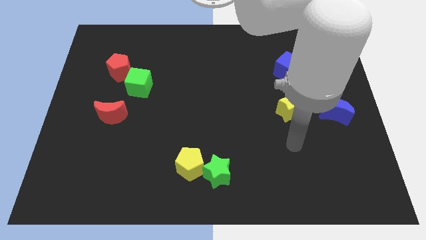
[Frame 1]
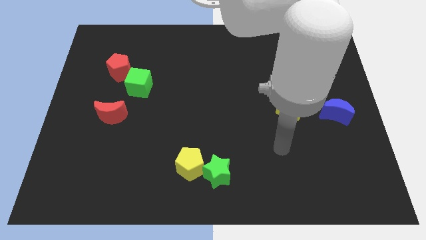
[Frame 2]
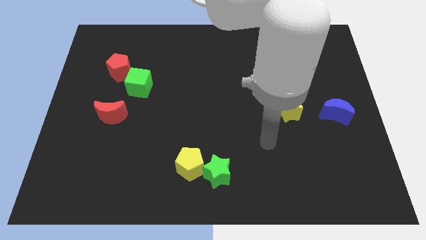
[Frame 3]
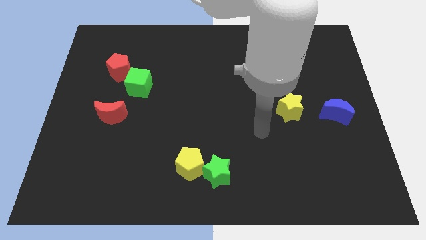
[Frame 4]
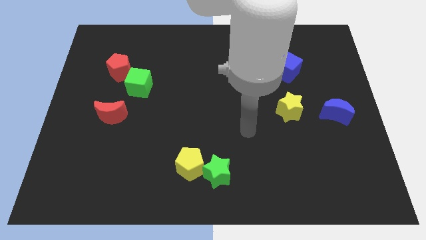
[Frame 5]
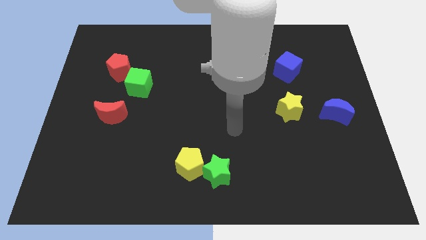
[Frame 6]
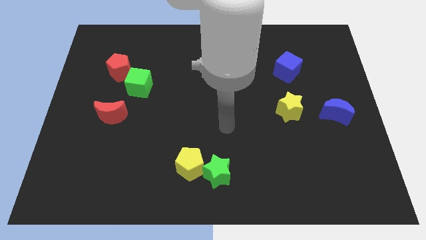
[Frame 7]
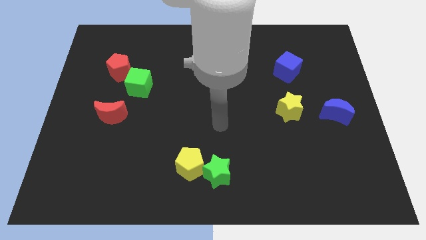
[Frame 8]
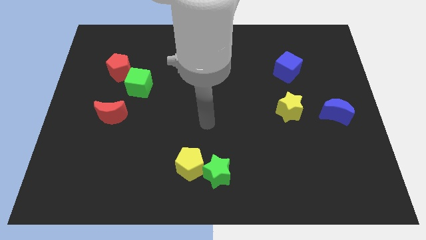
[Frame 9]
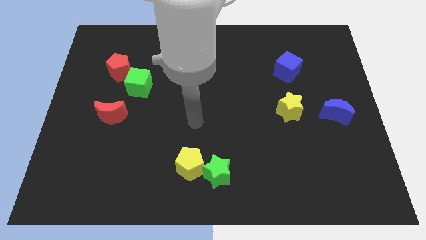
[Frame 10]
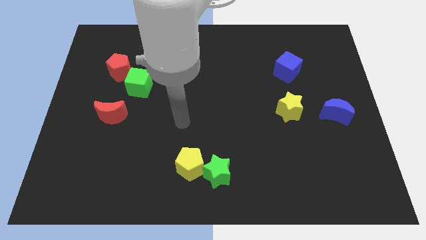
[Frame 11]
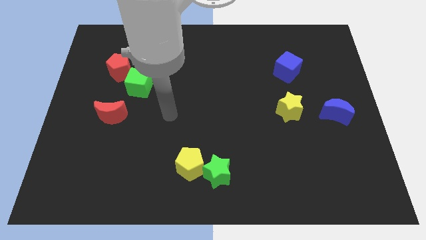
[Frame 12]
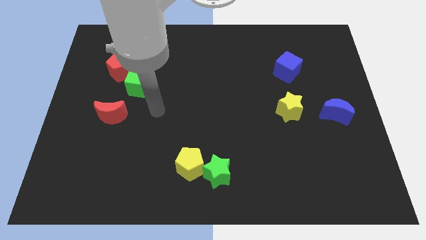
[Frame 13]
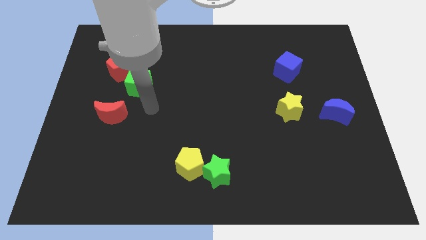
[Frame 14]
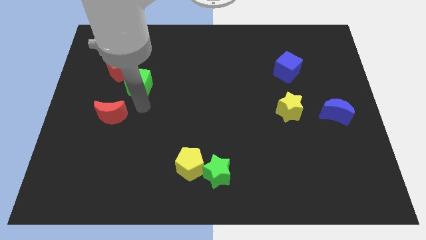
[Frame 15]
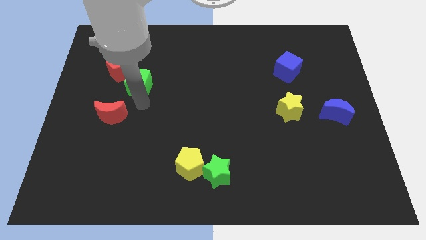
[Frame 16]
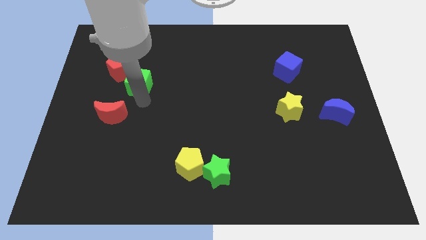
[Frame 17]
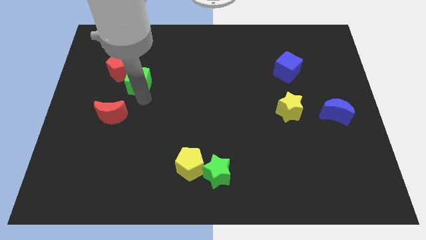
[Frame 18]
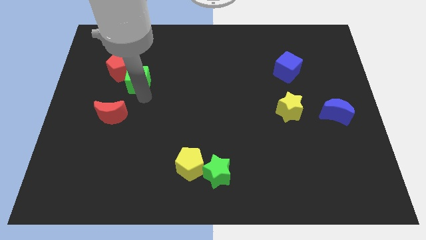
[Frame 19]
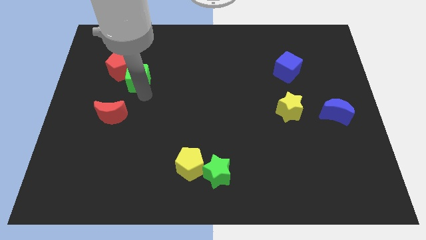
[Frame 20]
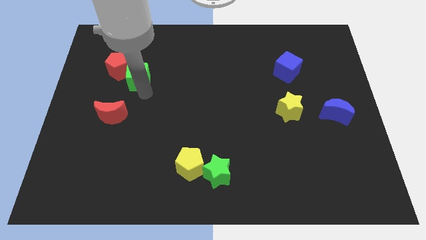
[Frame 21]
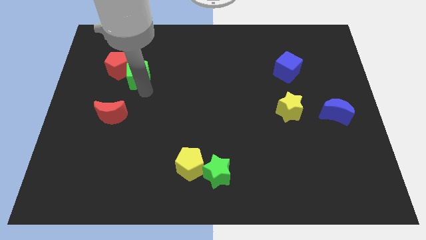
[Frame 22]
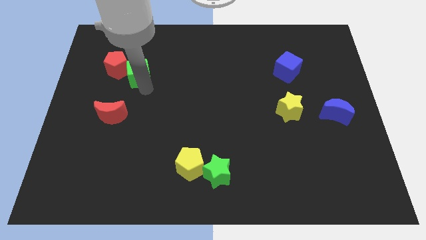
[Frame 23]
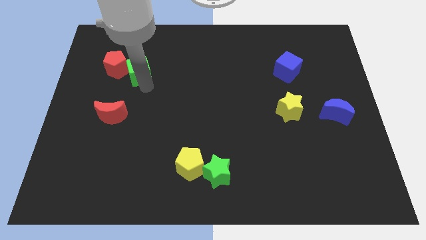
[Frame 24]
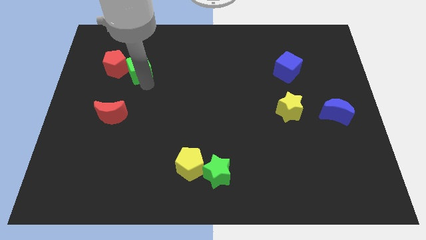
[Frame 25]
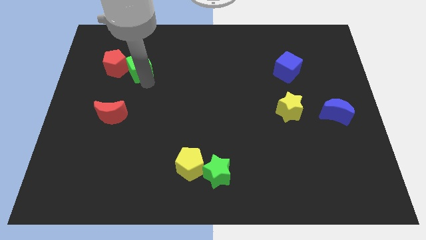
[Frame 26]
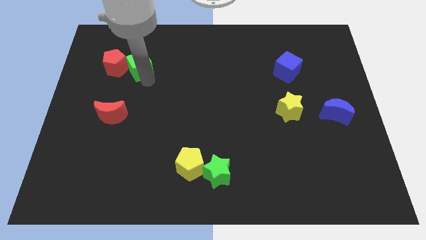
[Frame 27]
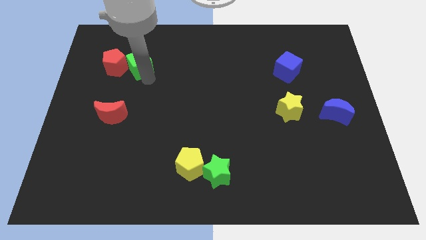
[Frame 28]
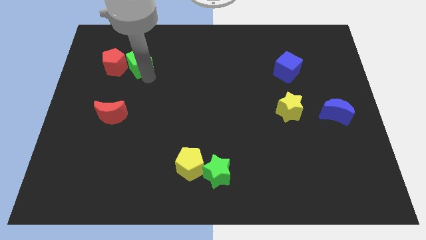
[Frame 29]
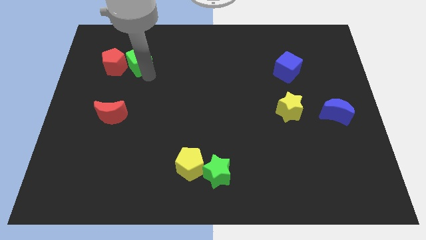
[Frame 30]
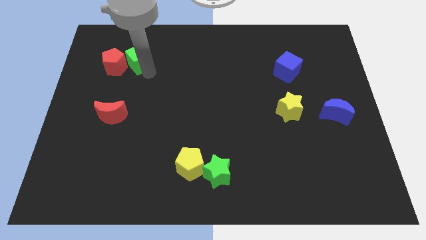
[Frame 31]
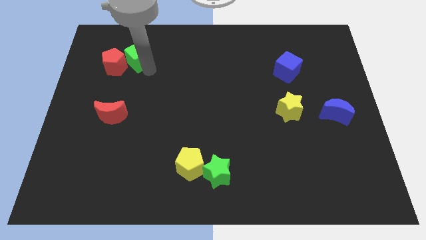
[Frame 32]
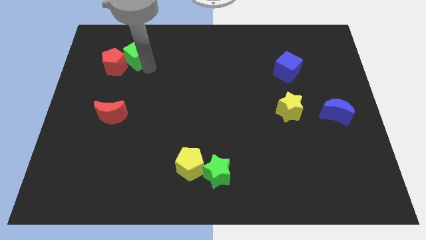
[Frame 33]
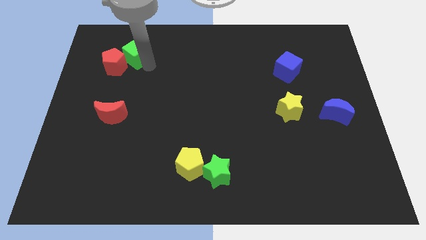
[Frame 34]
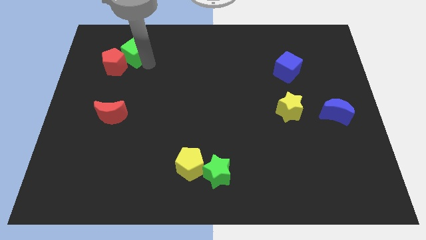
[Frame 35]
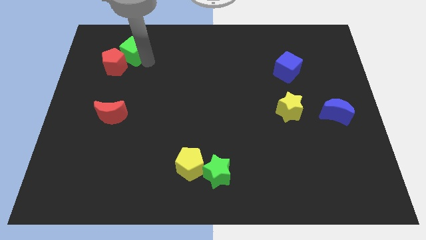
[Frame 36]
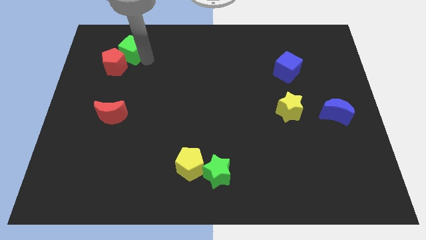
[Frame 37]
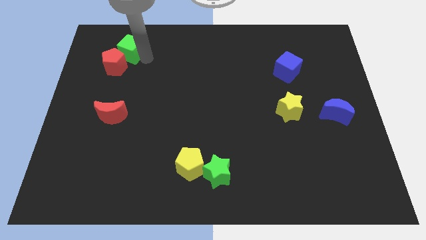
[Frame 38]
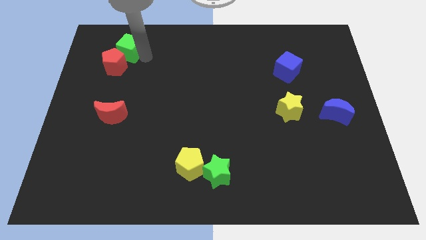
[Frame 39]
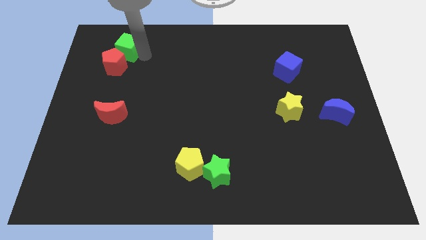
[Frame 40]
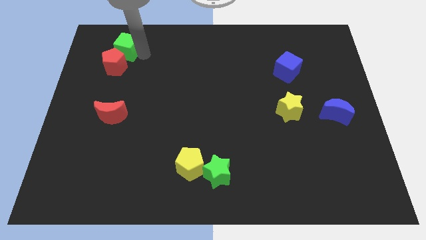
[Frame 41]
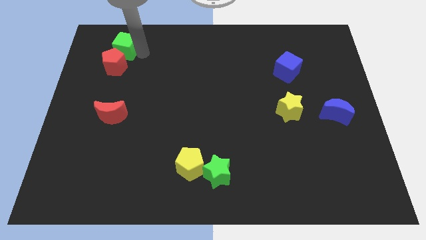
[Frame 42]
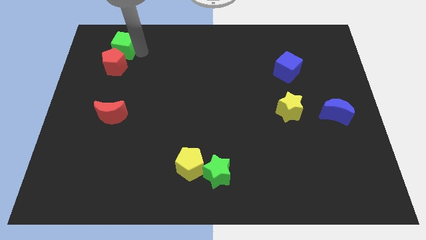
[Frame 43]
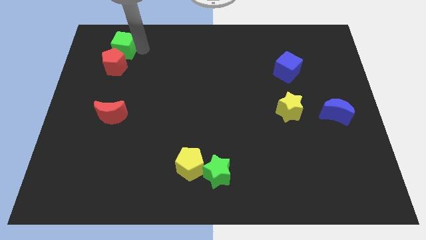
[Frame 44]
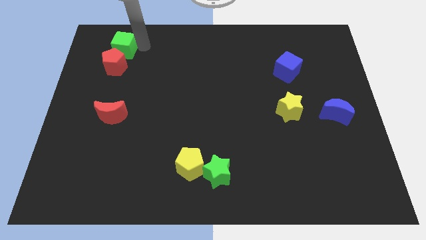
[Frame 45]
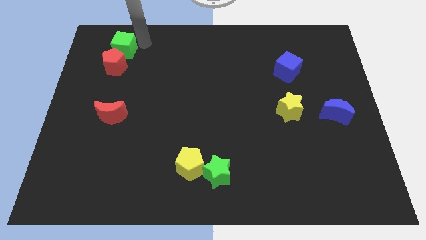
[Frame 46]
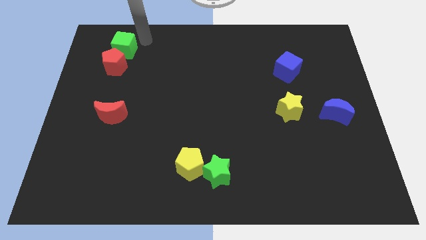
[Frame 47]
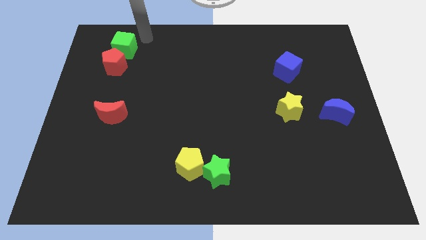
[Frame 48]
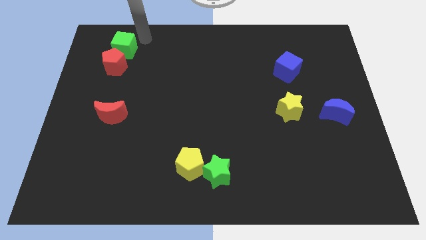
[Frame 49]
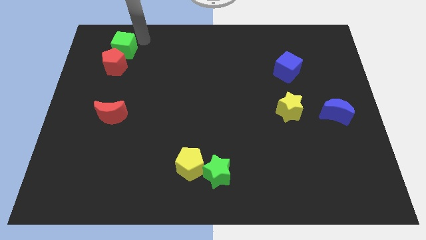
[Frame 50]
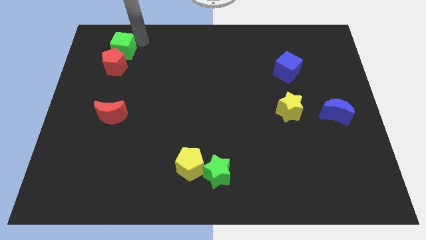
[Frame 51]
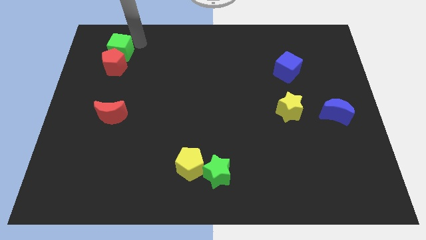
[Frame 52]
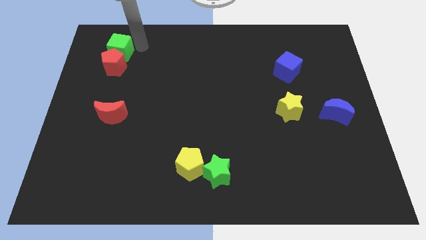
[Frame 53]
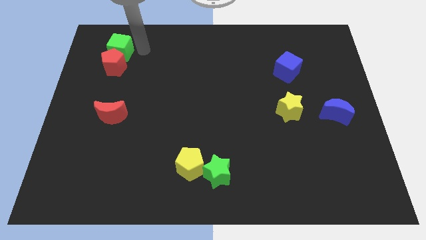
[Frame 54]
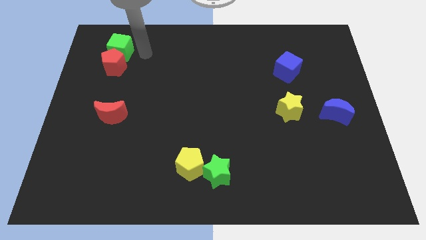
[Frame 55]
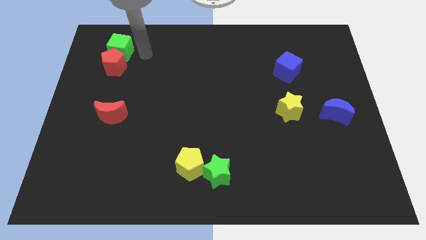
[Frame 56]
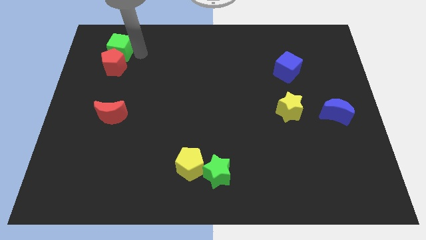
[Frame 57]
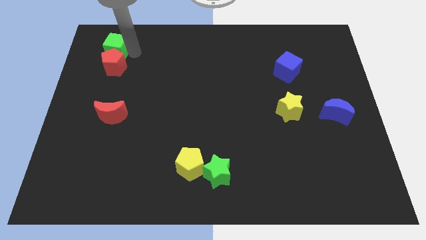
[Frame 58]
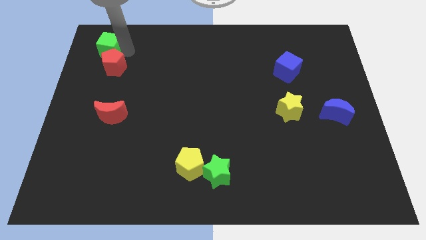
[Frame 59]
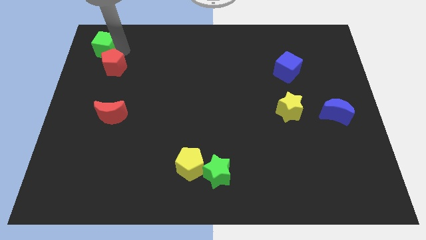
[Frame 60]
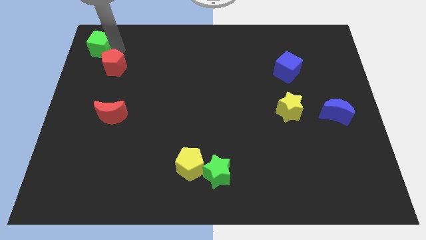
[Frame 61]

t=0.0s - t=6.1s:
slide the green cube to the top left
